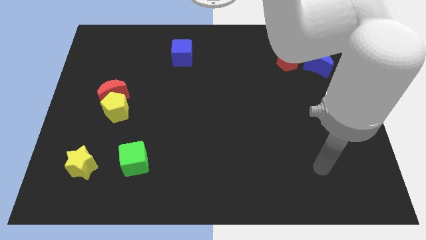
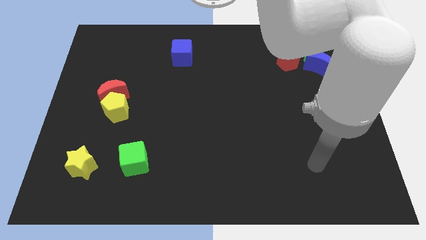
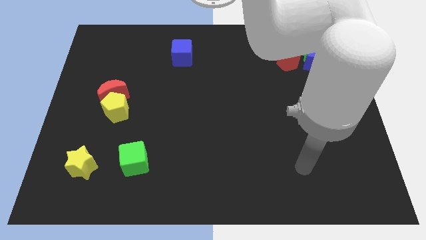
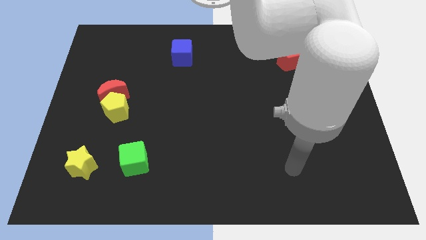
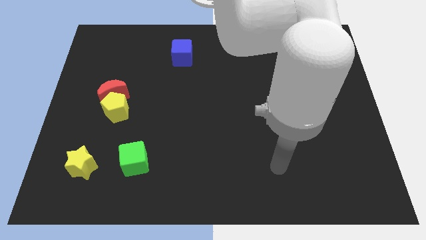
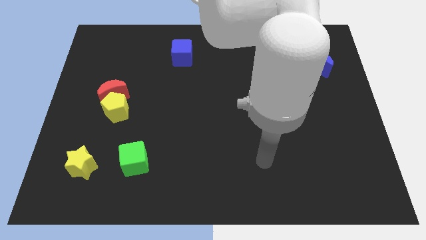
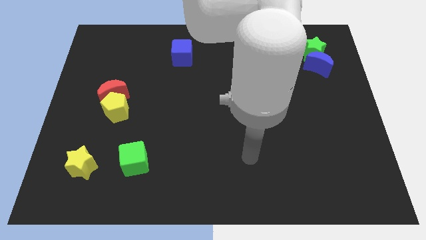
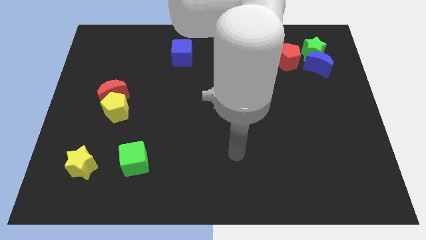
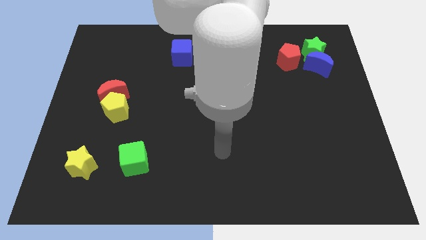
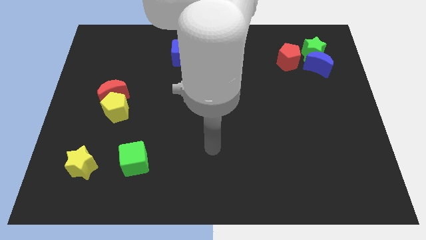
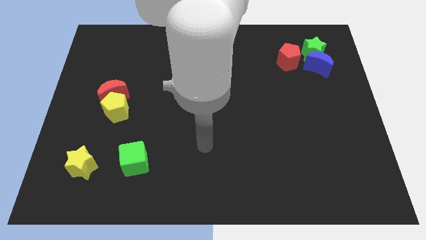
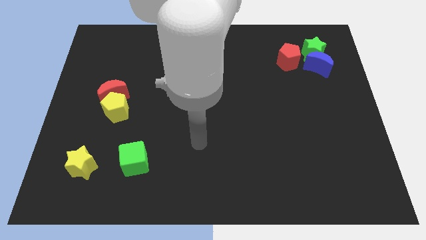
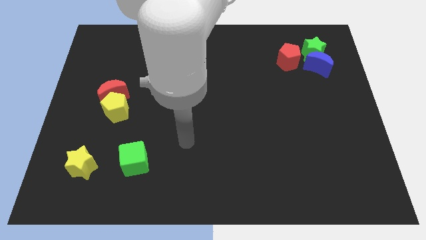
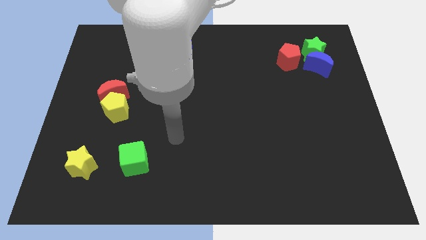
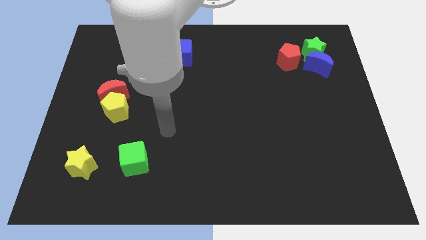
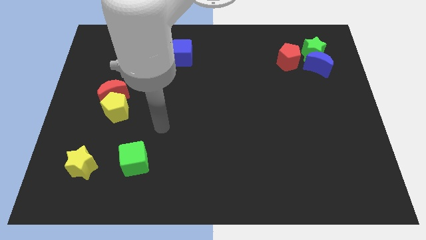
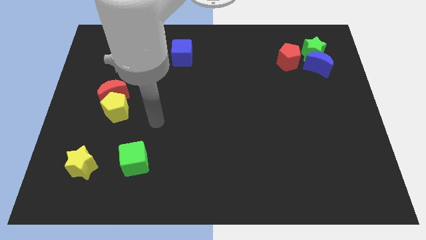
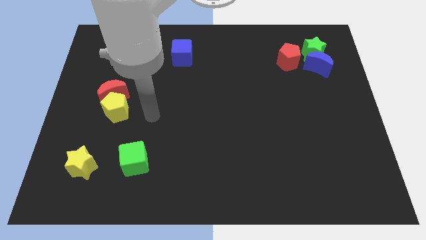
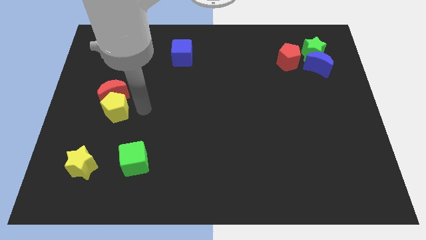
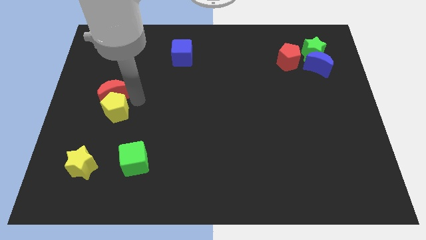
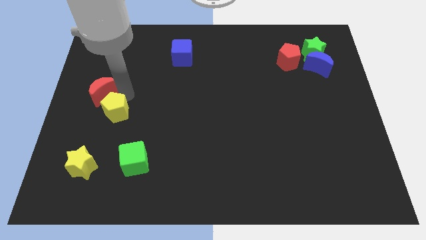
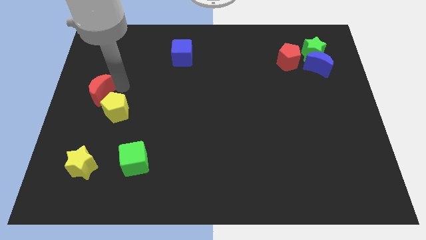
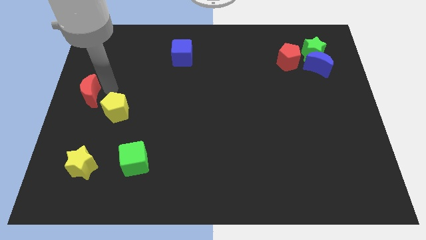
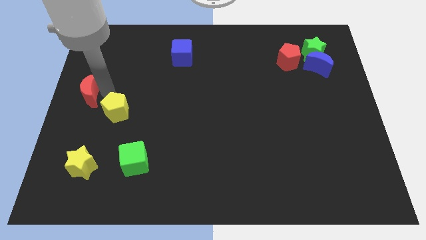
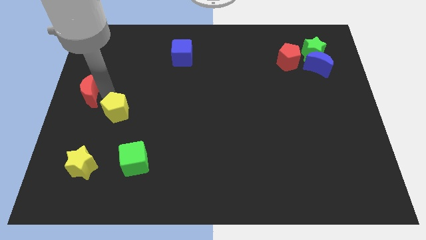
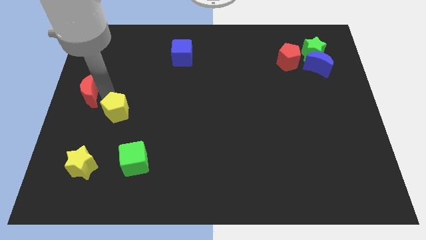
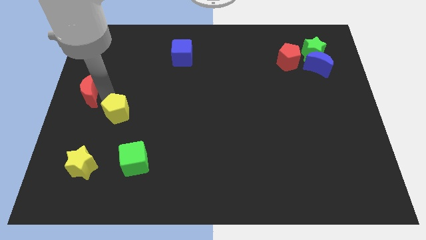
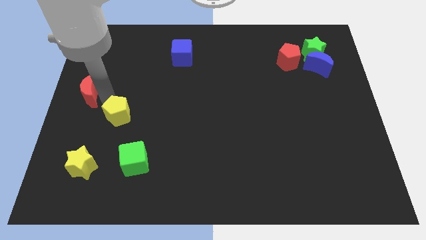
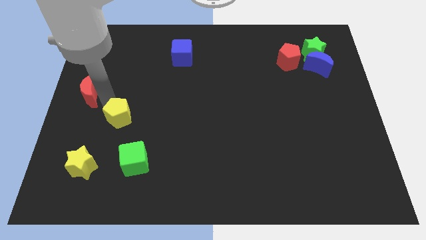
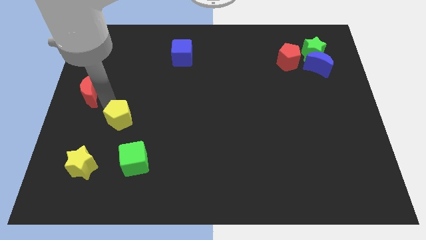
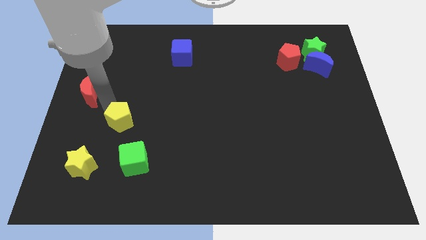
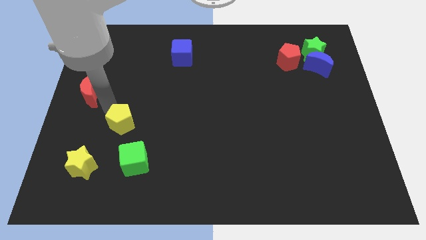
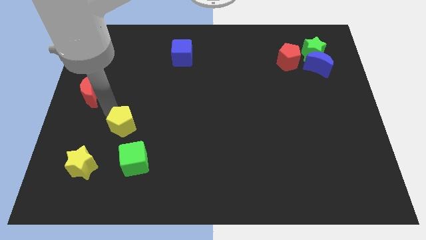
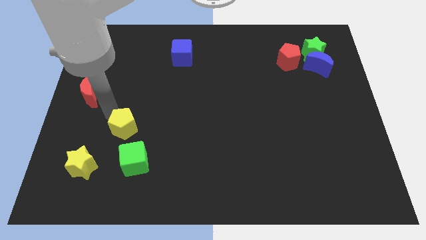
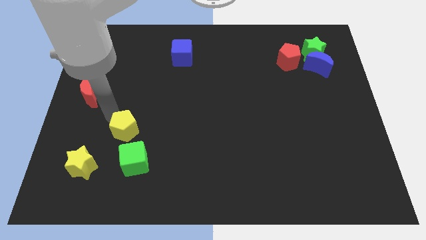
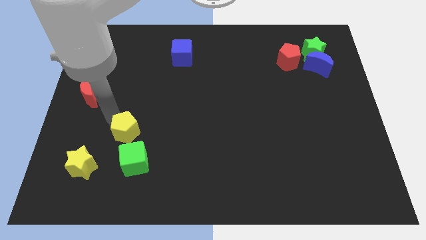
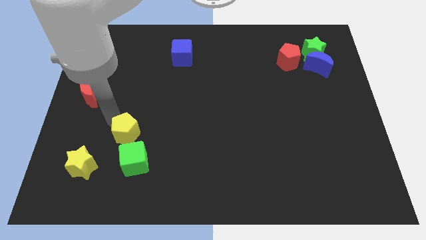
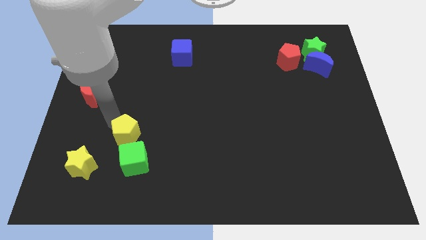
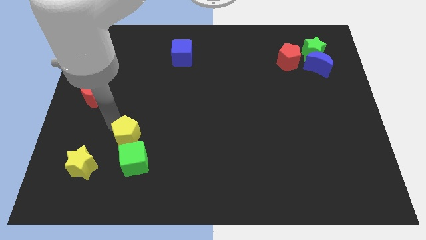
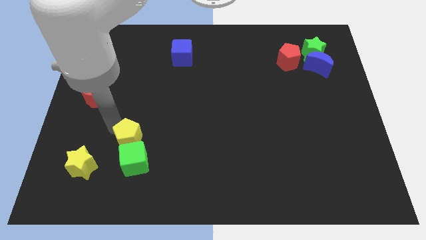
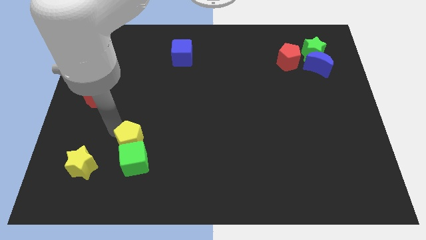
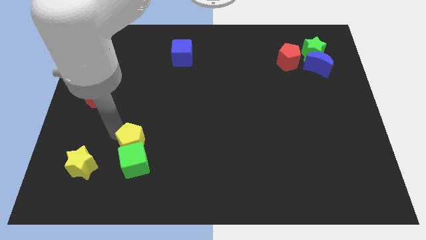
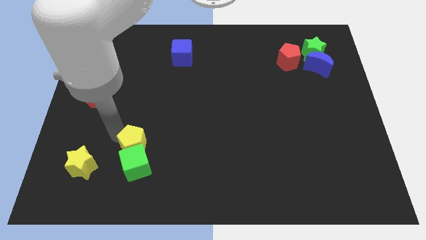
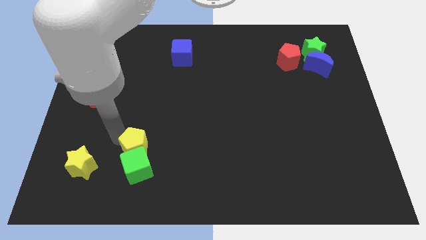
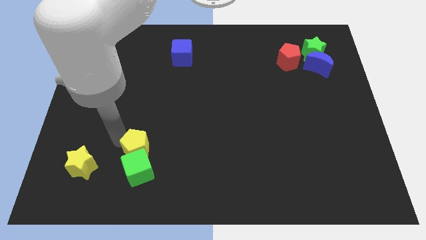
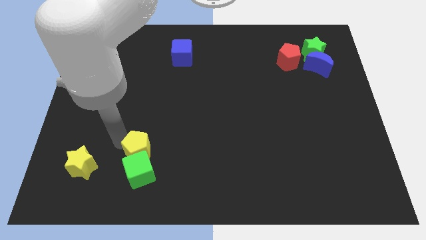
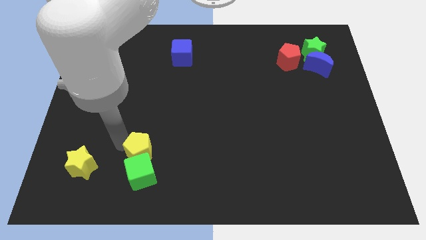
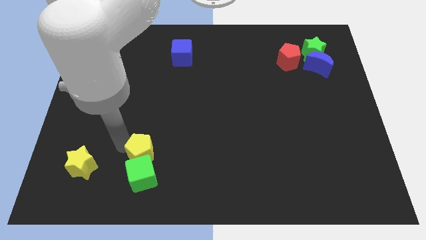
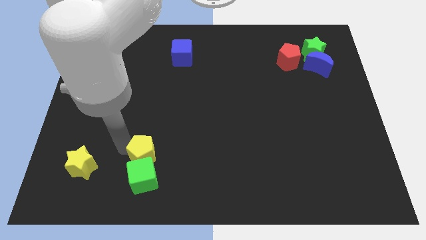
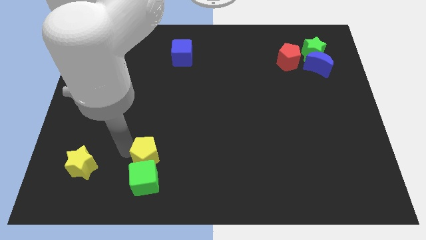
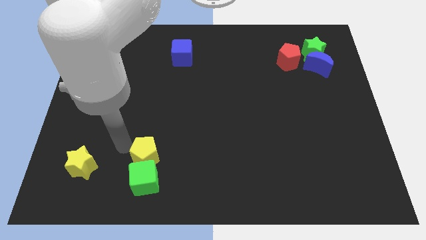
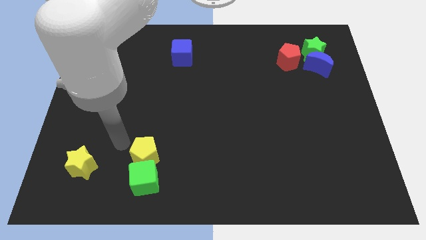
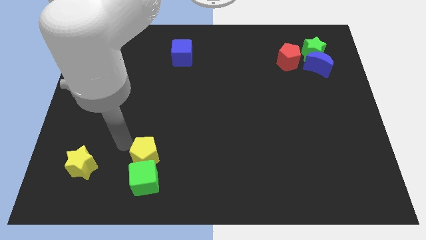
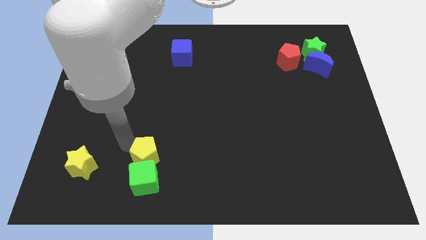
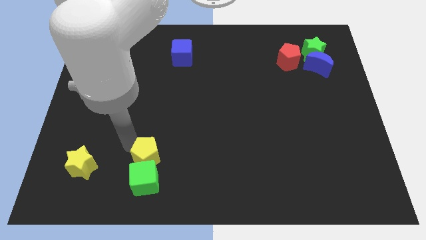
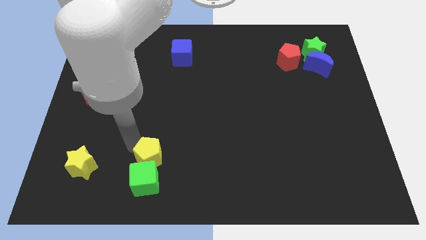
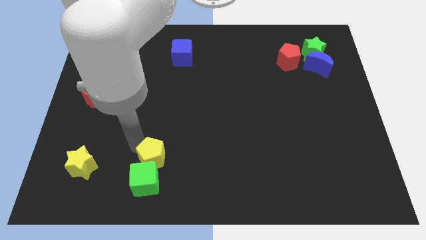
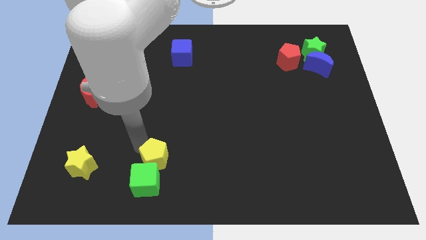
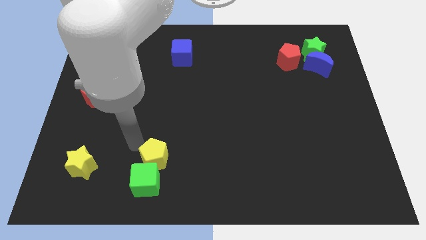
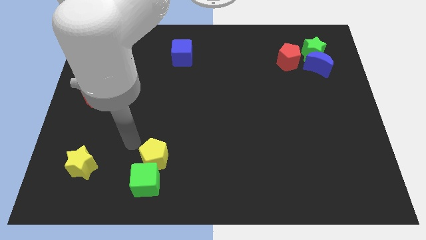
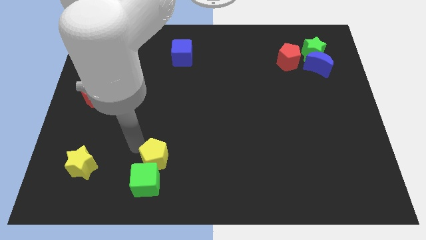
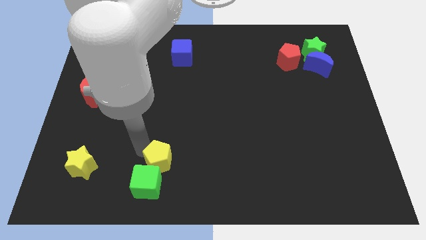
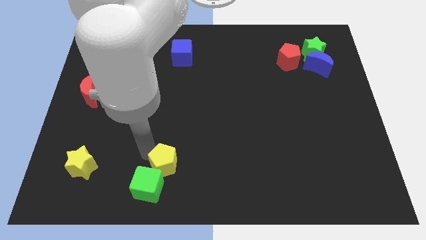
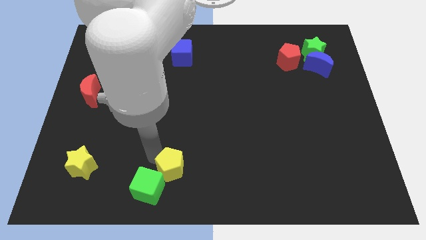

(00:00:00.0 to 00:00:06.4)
slide the yellow pentagon to the bottom side
